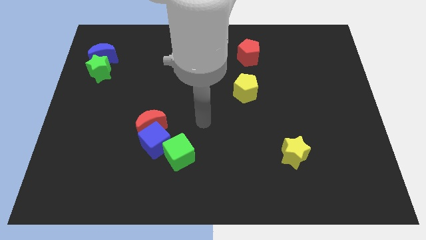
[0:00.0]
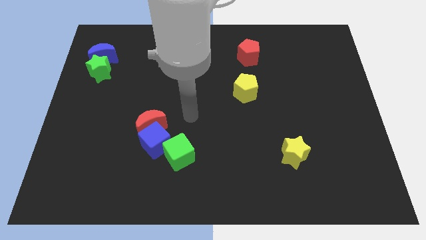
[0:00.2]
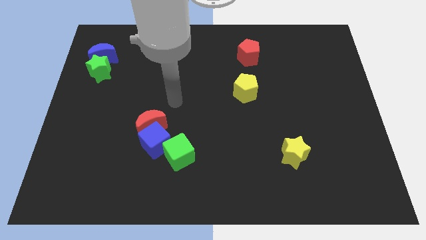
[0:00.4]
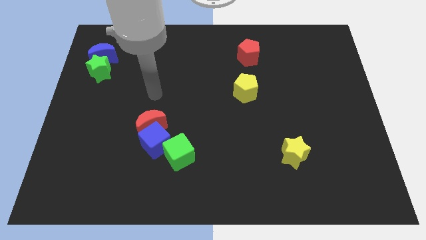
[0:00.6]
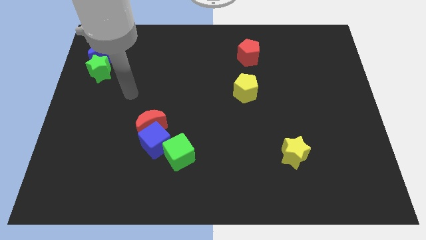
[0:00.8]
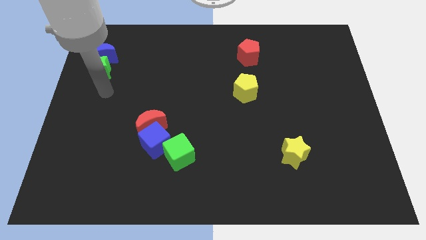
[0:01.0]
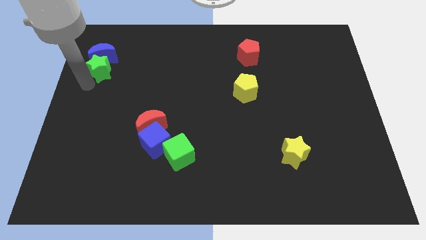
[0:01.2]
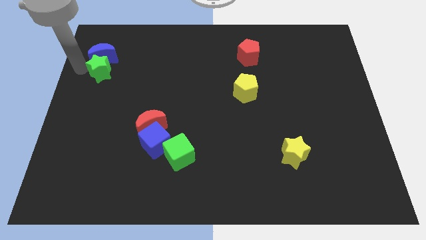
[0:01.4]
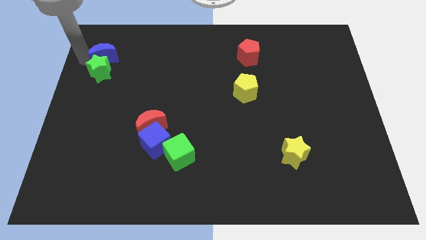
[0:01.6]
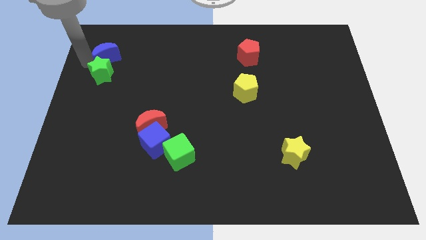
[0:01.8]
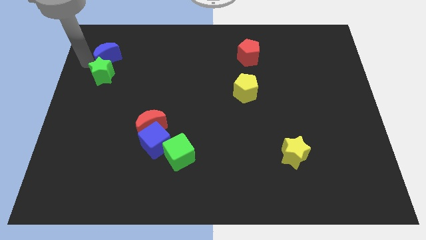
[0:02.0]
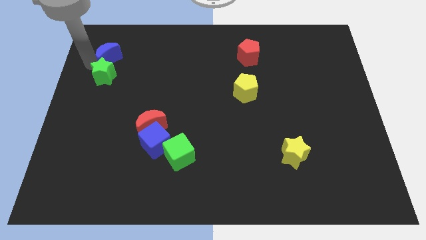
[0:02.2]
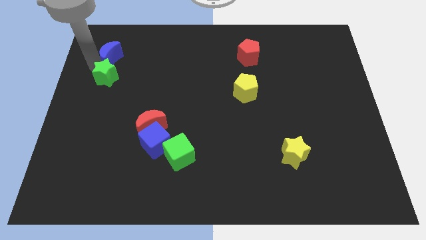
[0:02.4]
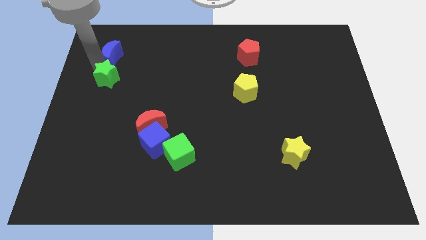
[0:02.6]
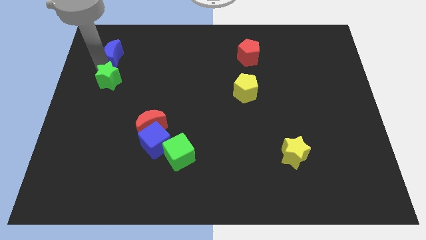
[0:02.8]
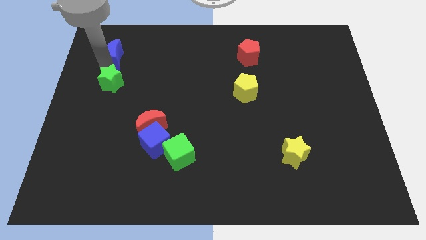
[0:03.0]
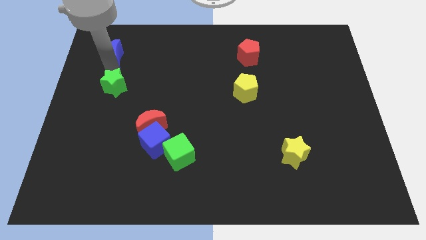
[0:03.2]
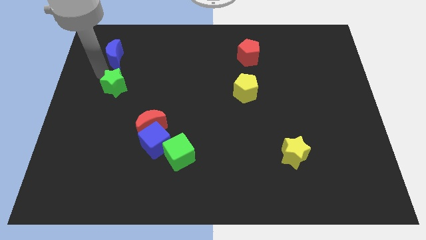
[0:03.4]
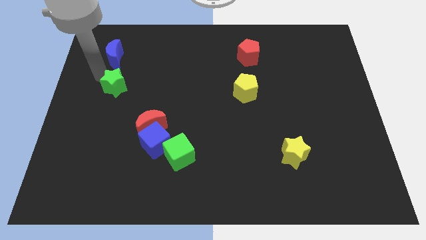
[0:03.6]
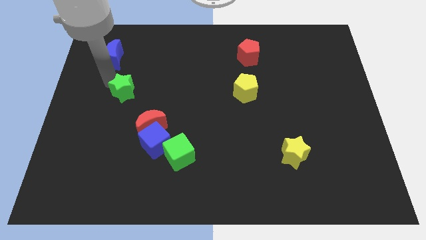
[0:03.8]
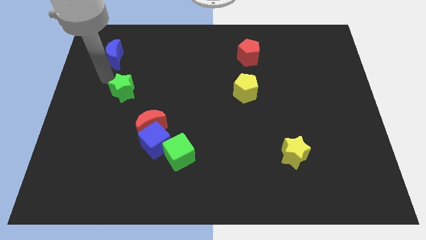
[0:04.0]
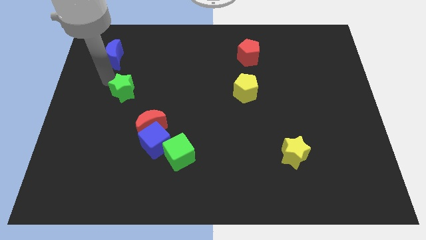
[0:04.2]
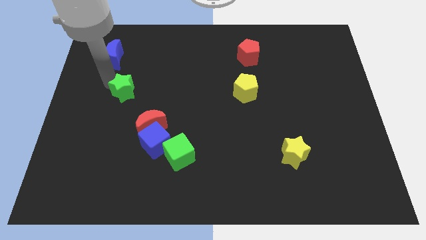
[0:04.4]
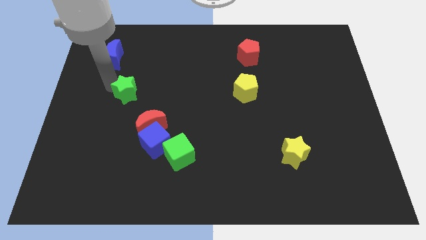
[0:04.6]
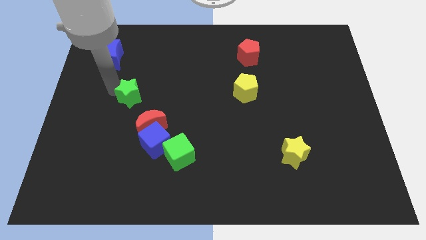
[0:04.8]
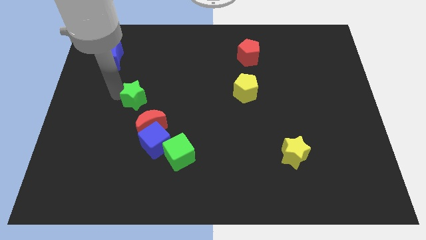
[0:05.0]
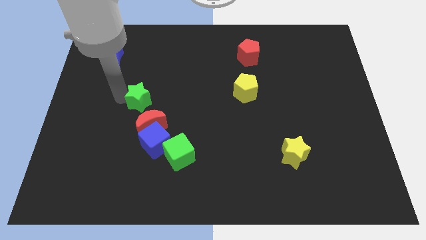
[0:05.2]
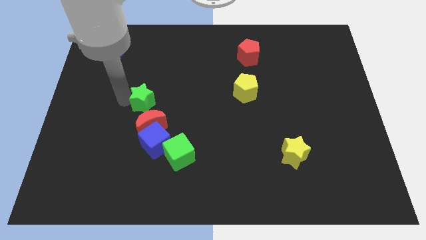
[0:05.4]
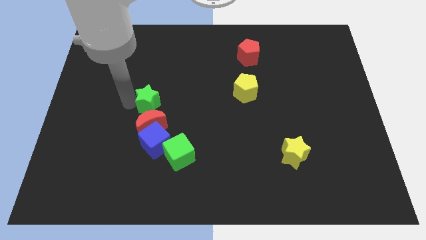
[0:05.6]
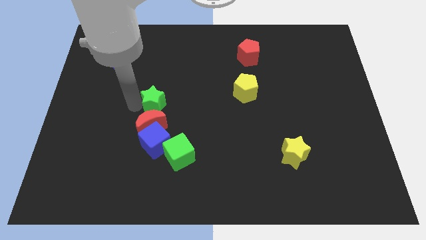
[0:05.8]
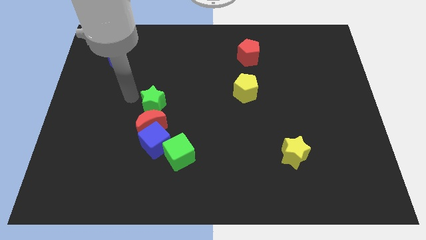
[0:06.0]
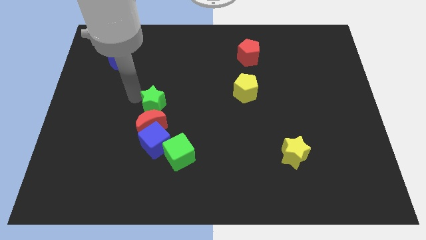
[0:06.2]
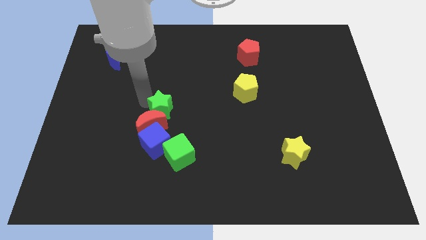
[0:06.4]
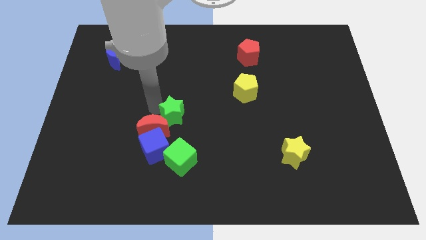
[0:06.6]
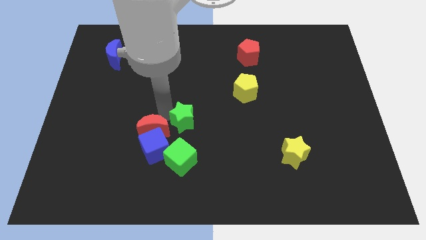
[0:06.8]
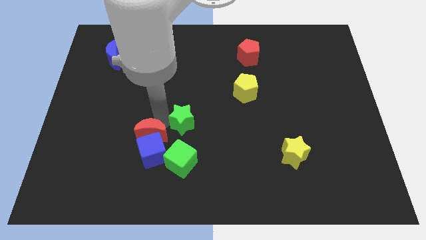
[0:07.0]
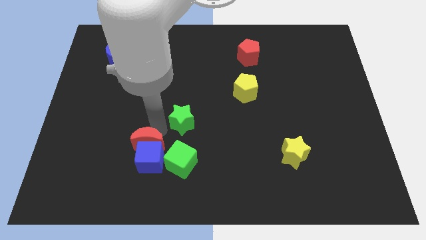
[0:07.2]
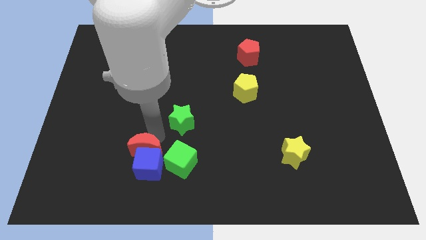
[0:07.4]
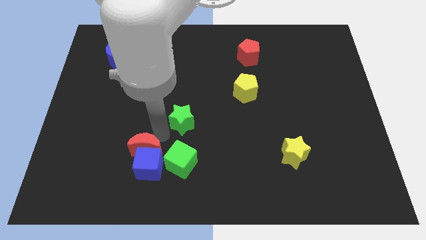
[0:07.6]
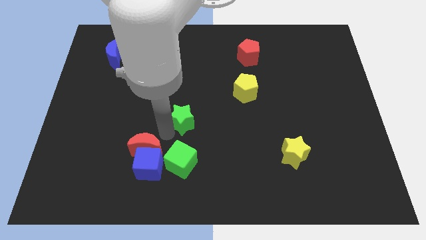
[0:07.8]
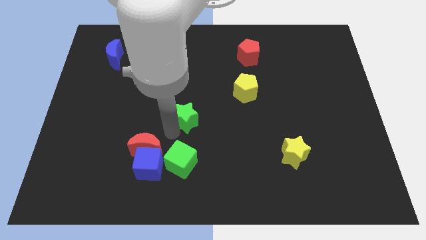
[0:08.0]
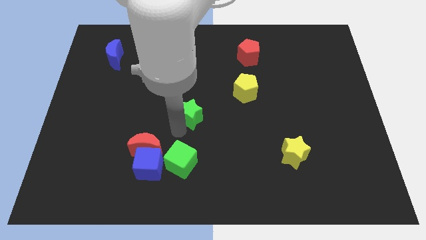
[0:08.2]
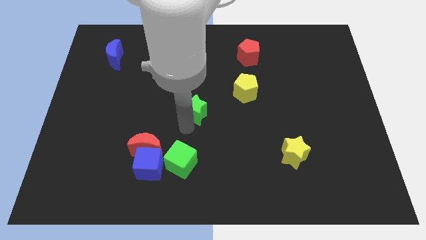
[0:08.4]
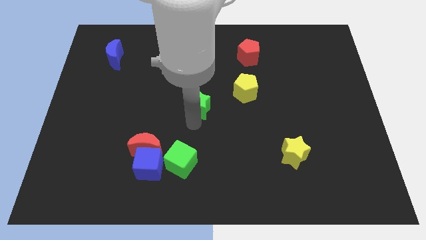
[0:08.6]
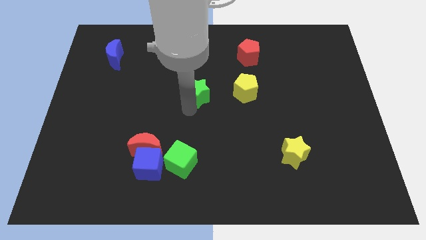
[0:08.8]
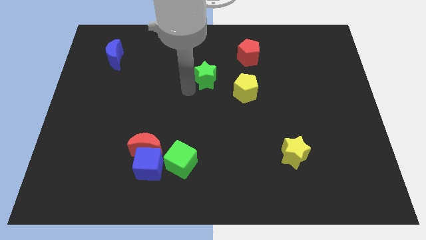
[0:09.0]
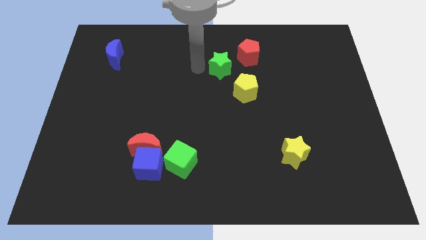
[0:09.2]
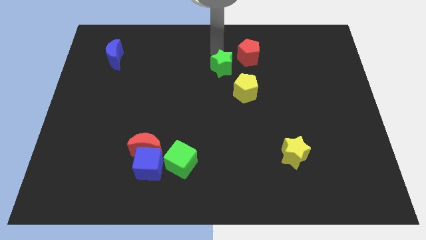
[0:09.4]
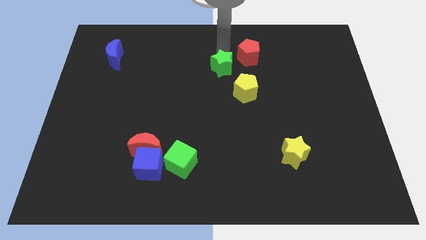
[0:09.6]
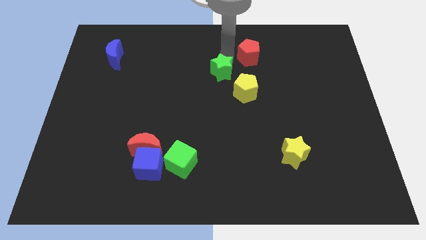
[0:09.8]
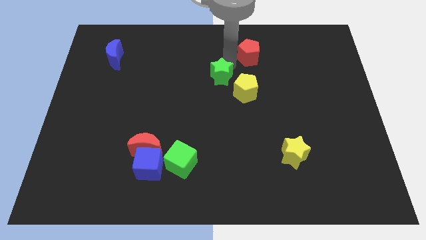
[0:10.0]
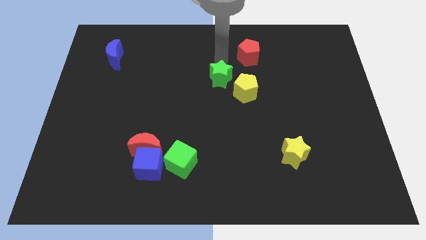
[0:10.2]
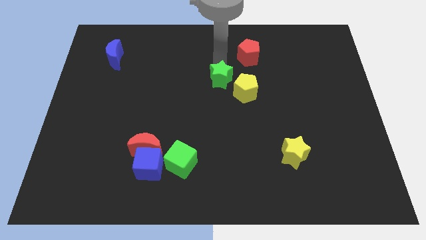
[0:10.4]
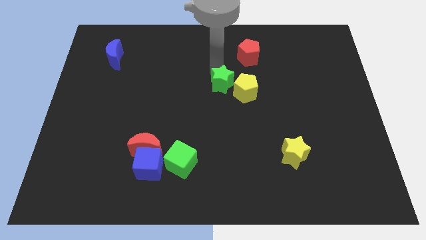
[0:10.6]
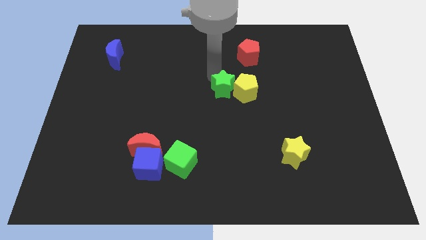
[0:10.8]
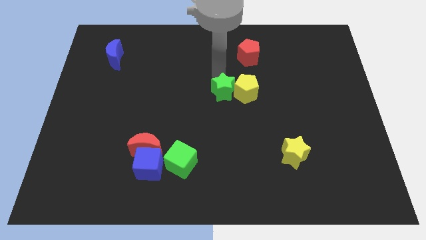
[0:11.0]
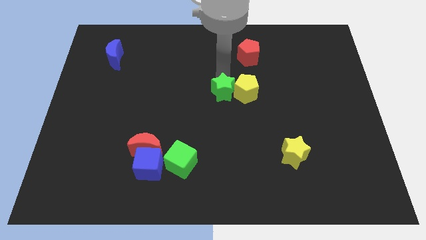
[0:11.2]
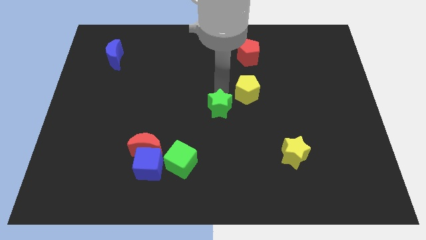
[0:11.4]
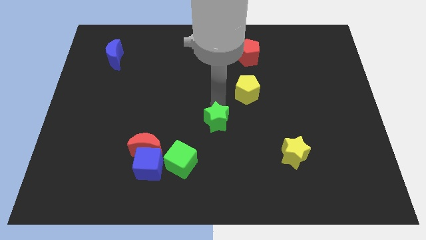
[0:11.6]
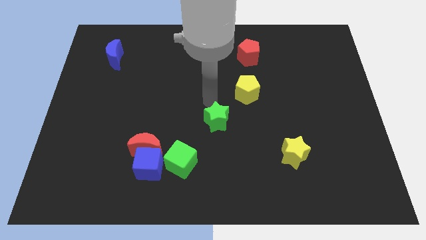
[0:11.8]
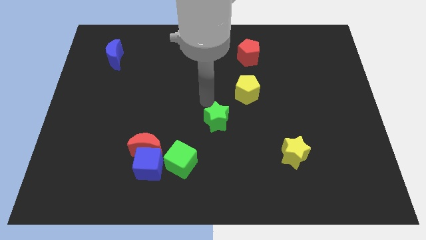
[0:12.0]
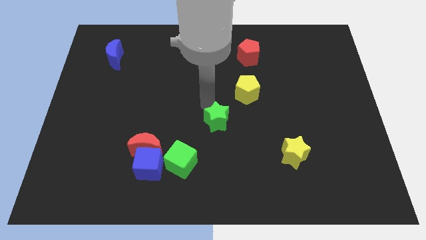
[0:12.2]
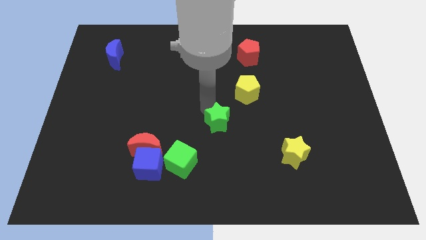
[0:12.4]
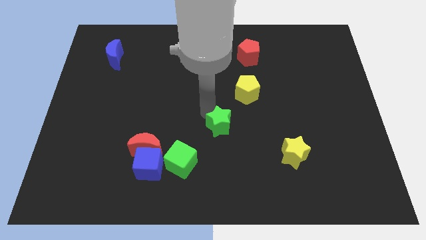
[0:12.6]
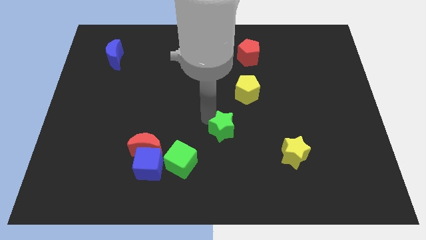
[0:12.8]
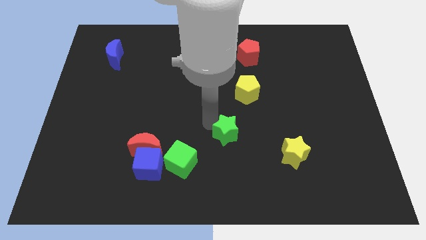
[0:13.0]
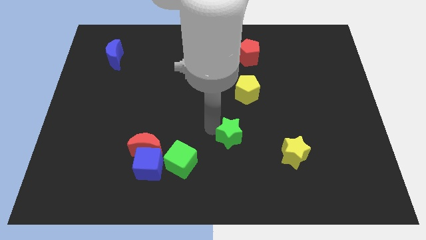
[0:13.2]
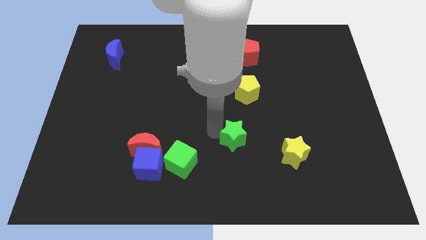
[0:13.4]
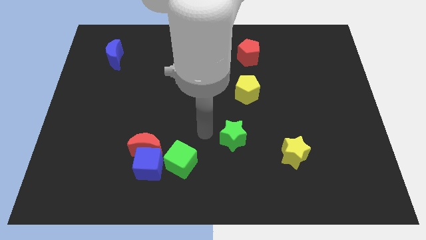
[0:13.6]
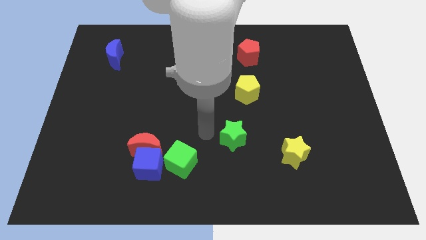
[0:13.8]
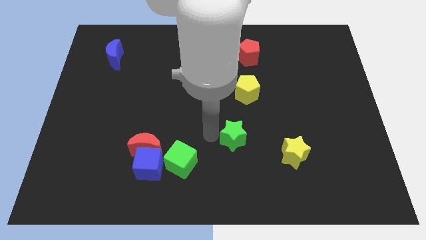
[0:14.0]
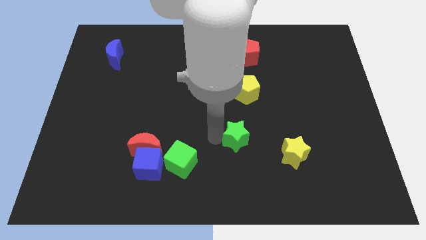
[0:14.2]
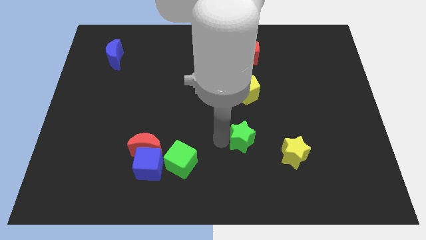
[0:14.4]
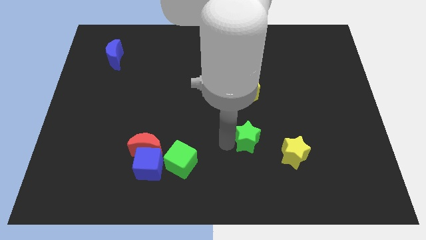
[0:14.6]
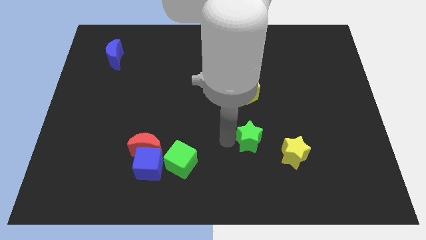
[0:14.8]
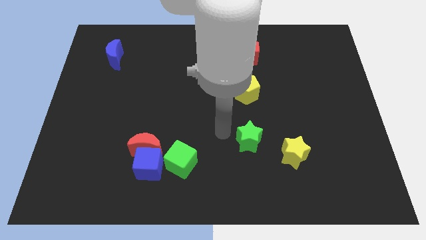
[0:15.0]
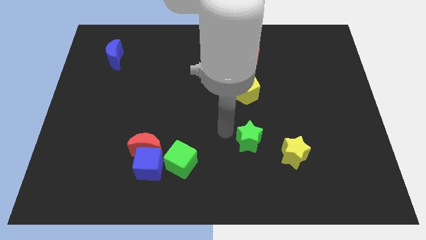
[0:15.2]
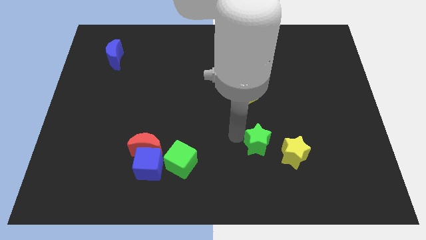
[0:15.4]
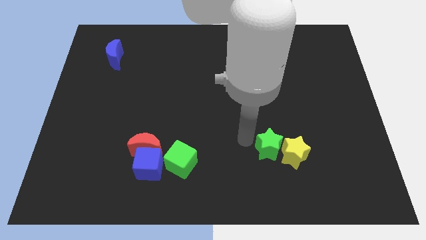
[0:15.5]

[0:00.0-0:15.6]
slide the green star next to the yellow star

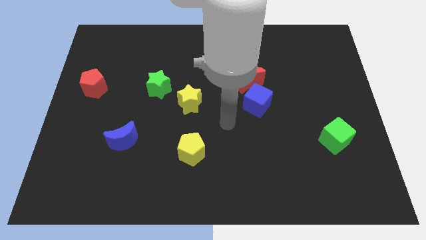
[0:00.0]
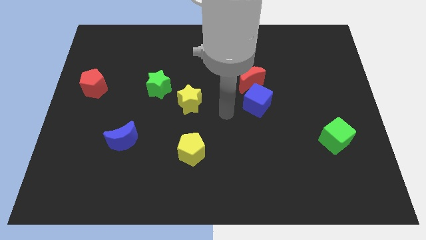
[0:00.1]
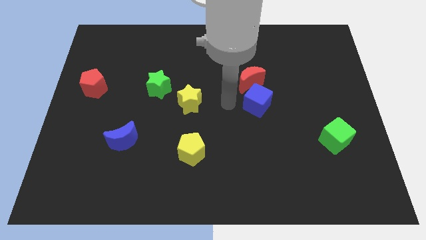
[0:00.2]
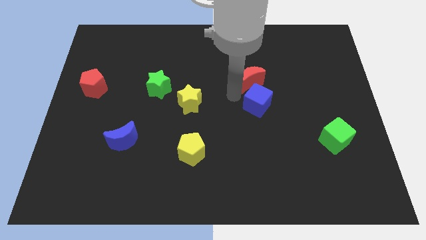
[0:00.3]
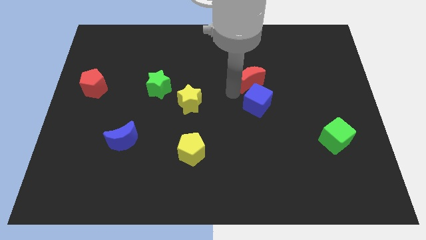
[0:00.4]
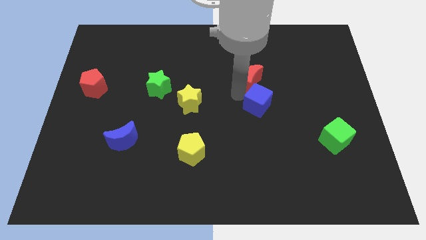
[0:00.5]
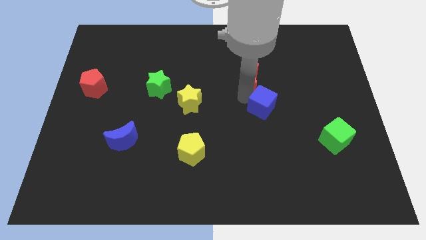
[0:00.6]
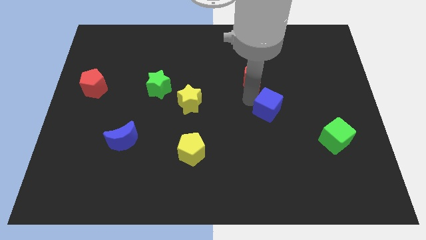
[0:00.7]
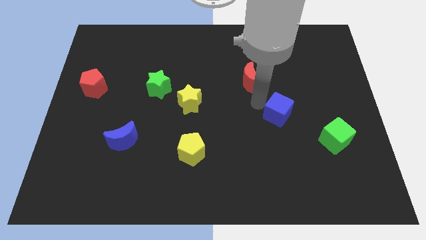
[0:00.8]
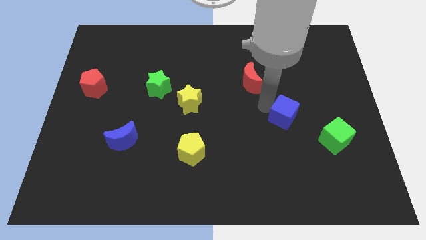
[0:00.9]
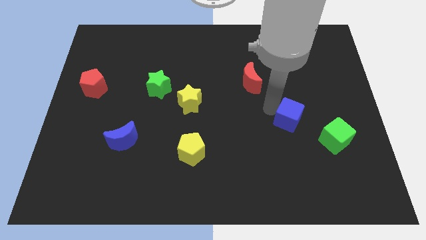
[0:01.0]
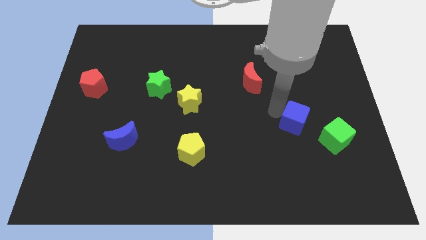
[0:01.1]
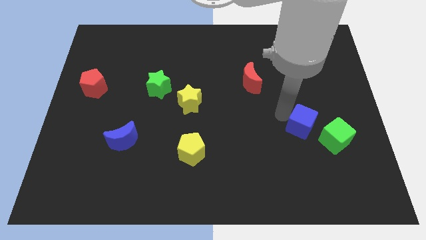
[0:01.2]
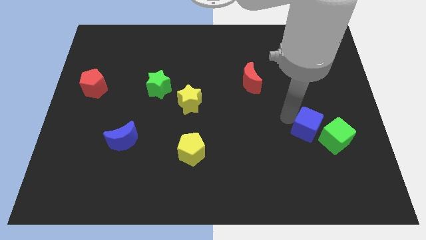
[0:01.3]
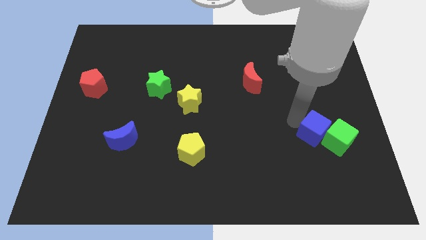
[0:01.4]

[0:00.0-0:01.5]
put the blue cube to the green cube
